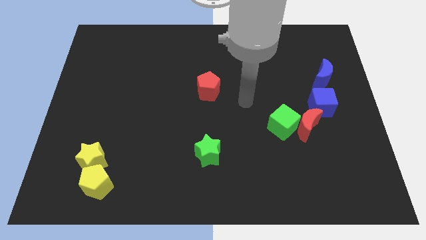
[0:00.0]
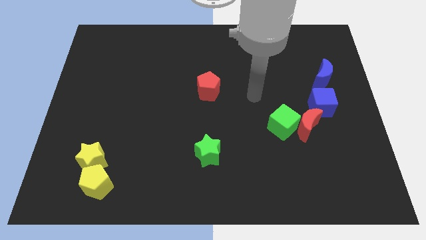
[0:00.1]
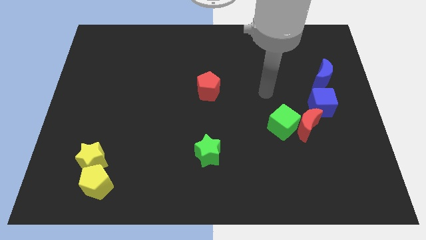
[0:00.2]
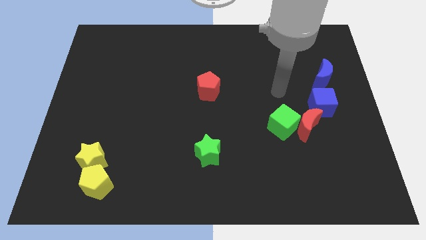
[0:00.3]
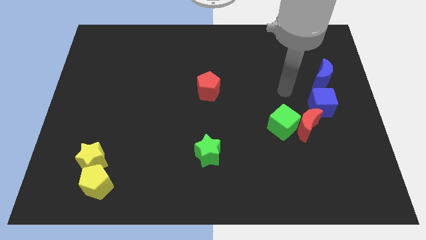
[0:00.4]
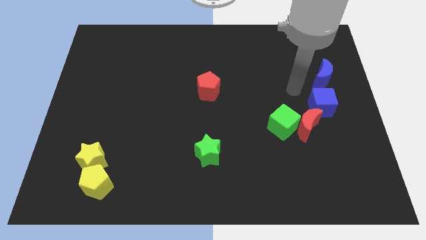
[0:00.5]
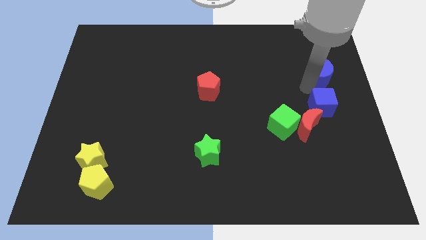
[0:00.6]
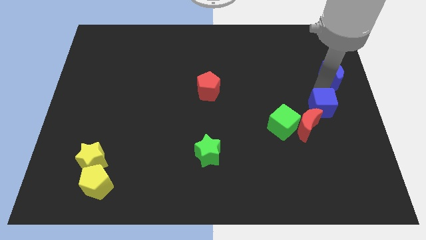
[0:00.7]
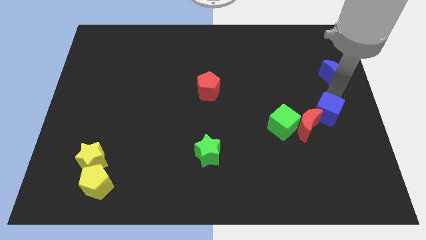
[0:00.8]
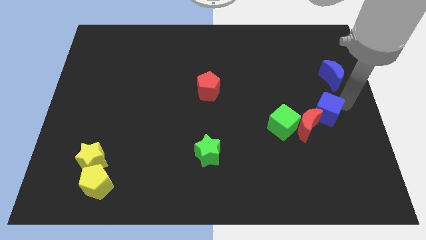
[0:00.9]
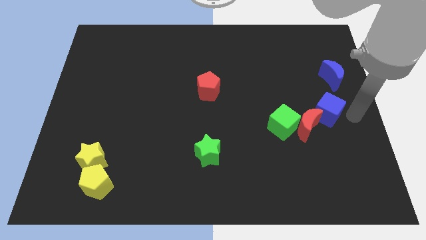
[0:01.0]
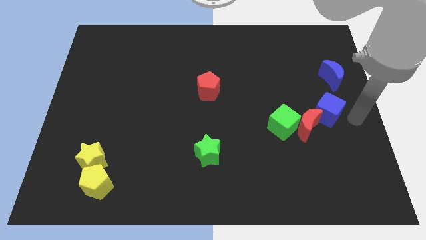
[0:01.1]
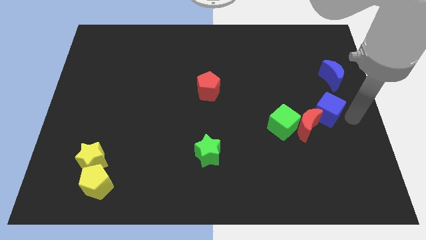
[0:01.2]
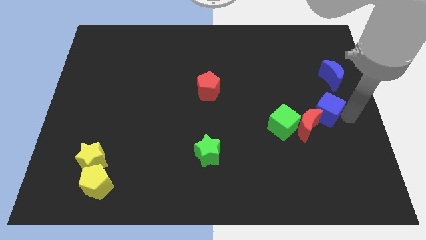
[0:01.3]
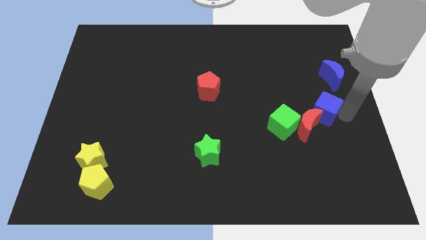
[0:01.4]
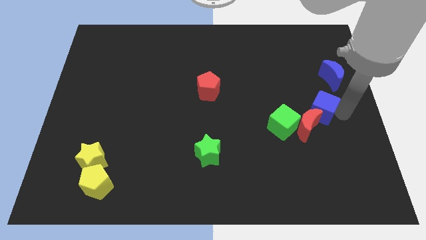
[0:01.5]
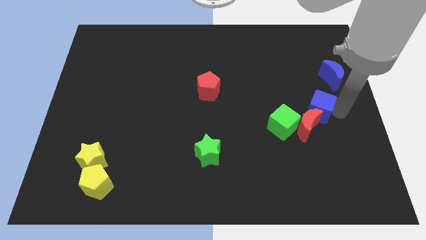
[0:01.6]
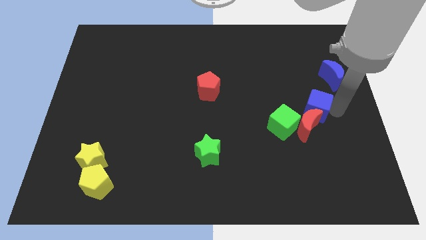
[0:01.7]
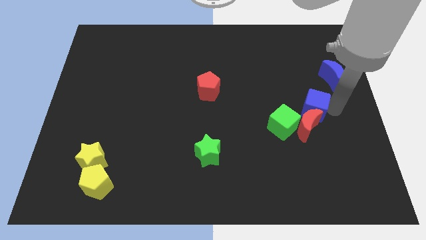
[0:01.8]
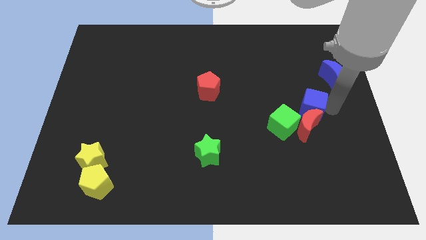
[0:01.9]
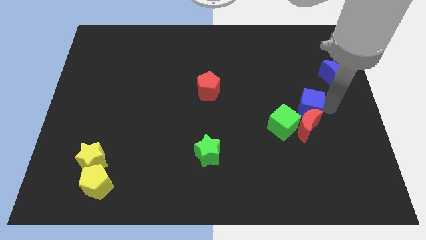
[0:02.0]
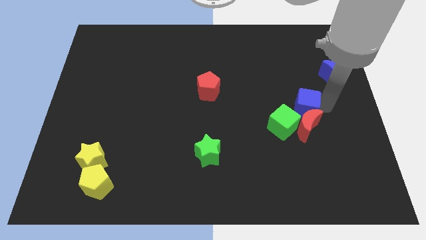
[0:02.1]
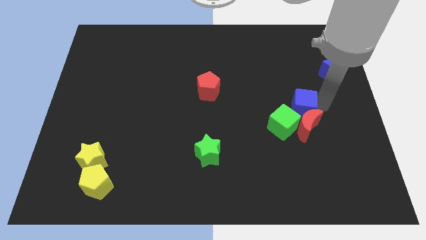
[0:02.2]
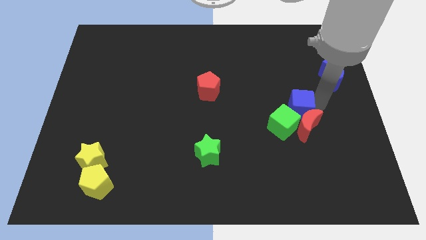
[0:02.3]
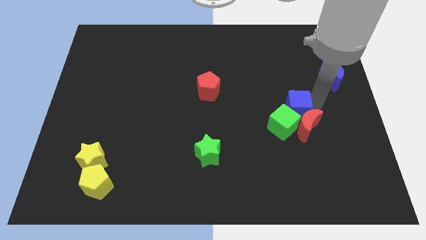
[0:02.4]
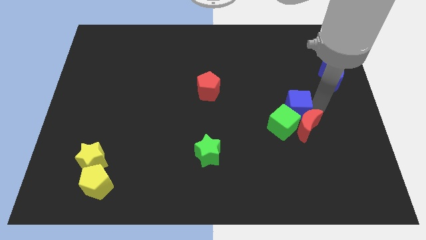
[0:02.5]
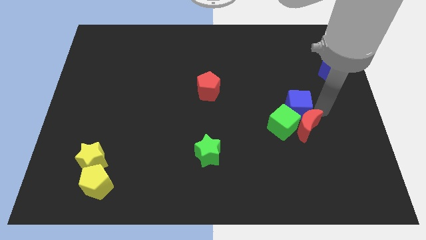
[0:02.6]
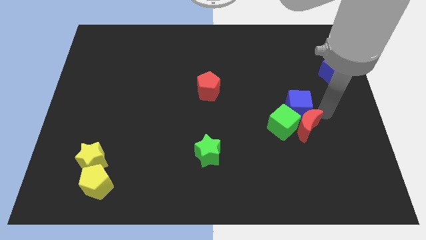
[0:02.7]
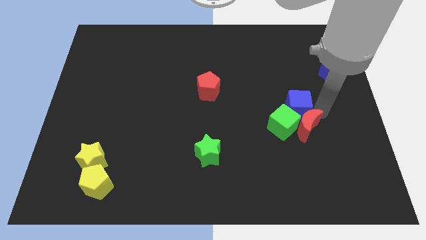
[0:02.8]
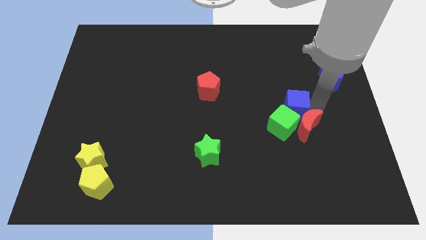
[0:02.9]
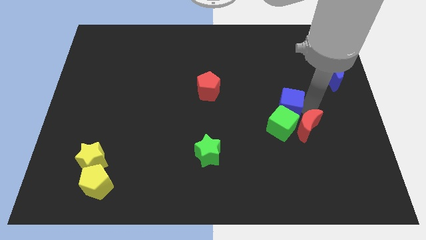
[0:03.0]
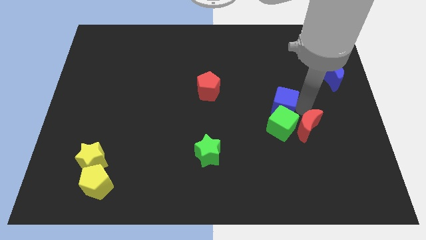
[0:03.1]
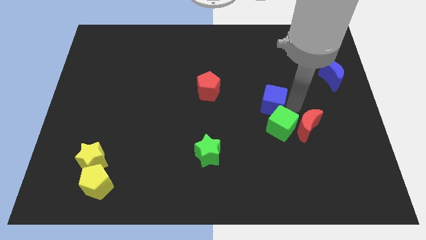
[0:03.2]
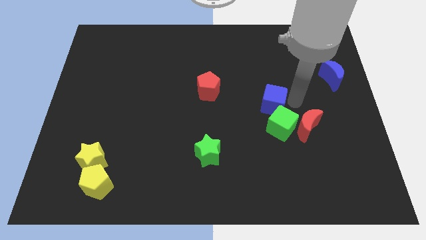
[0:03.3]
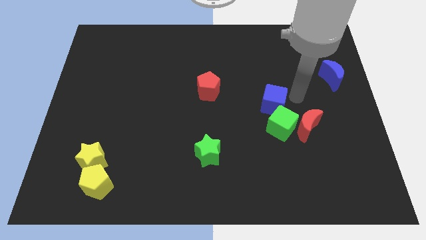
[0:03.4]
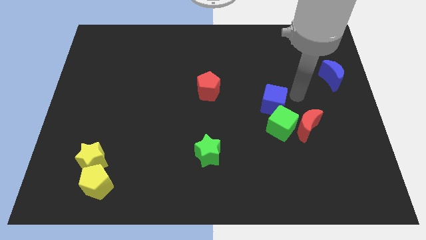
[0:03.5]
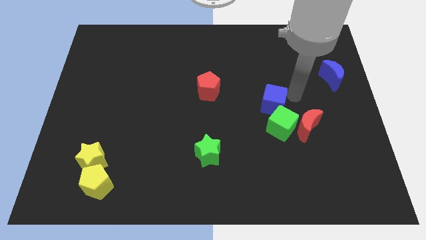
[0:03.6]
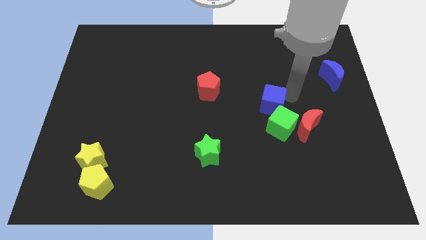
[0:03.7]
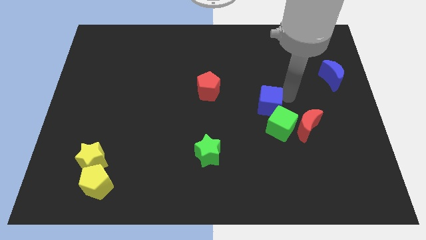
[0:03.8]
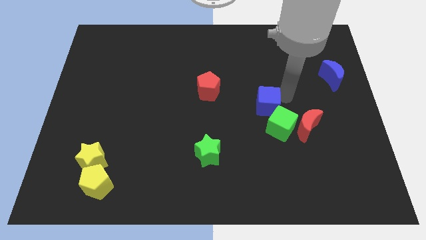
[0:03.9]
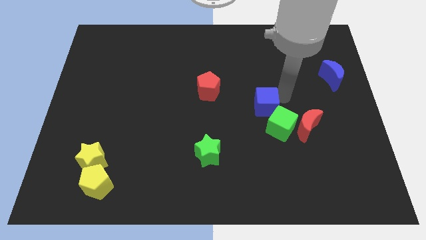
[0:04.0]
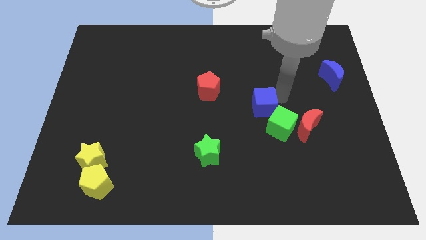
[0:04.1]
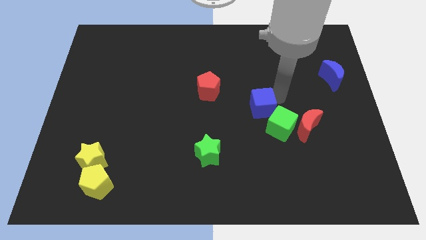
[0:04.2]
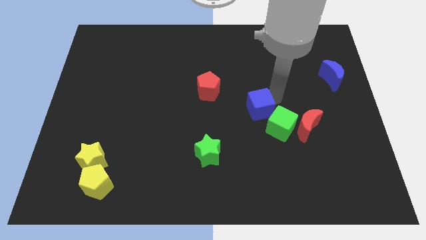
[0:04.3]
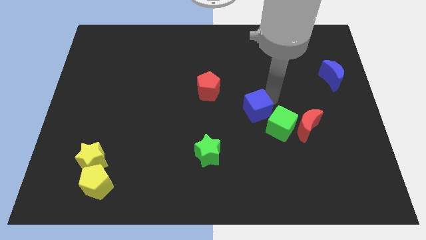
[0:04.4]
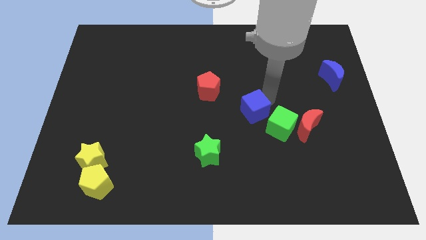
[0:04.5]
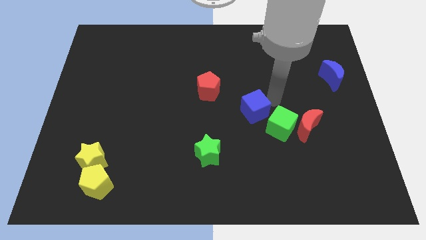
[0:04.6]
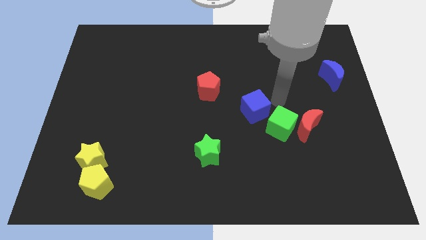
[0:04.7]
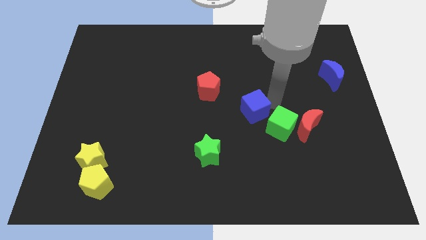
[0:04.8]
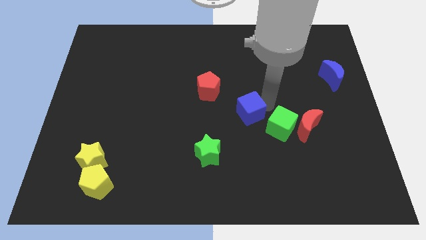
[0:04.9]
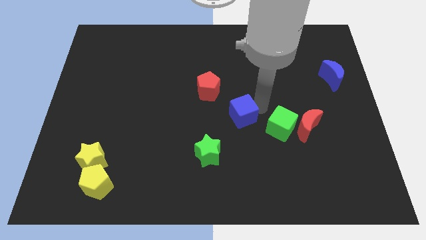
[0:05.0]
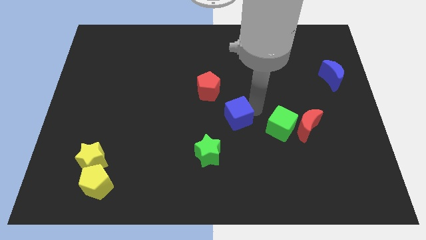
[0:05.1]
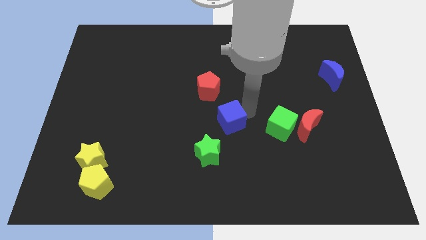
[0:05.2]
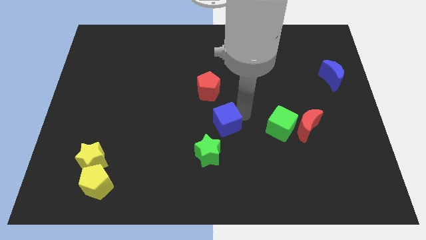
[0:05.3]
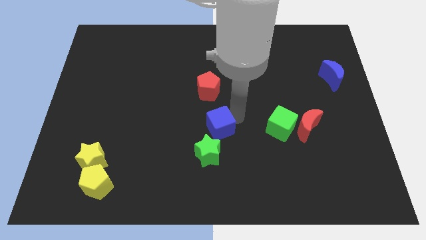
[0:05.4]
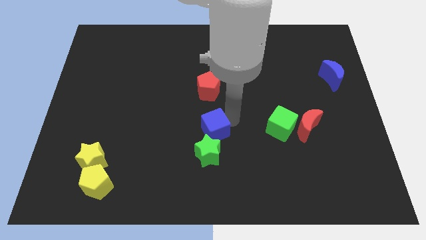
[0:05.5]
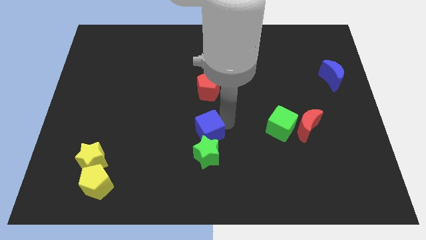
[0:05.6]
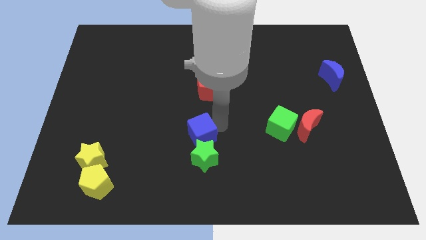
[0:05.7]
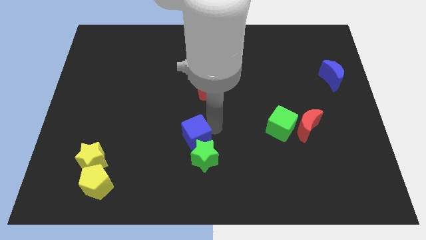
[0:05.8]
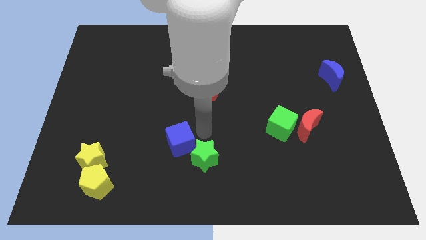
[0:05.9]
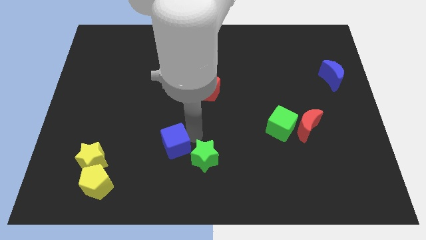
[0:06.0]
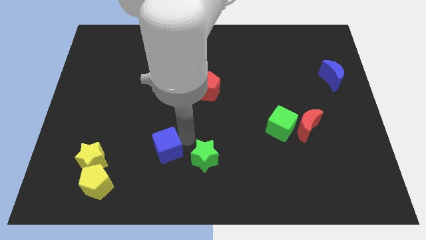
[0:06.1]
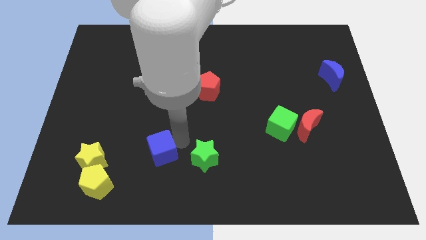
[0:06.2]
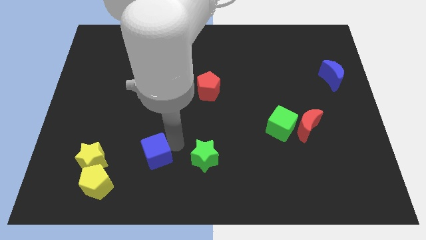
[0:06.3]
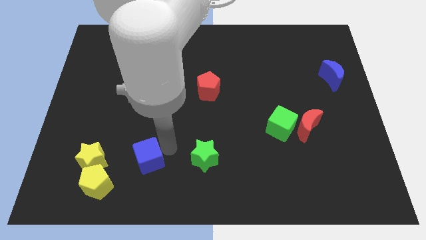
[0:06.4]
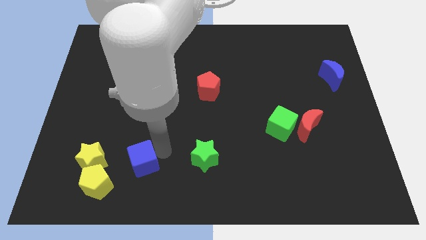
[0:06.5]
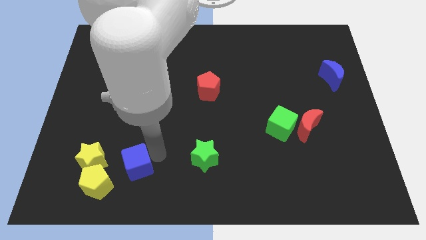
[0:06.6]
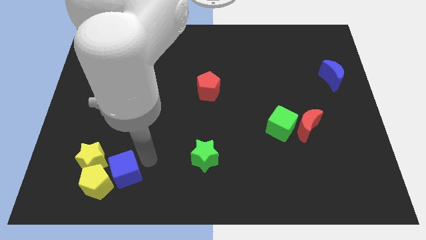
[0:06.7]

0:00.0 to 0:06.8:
move the blue cube towards the yellow pentagon
